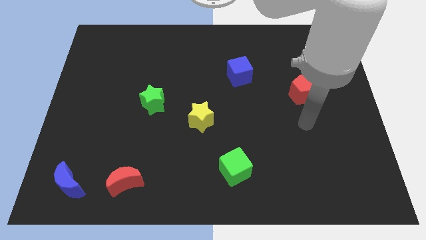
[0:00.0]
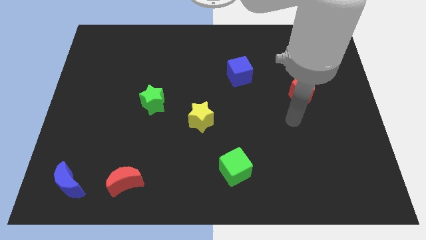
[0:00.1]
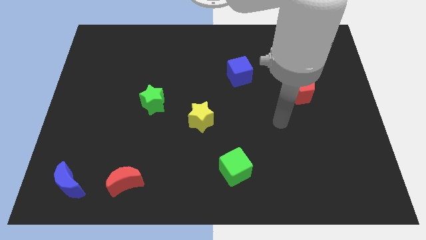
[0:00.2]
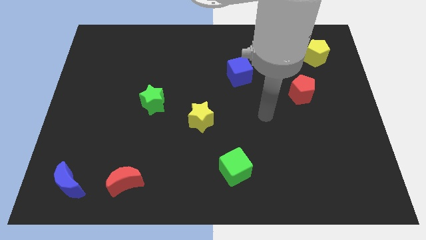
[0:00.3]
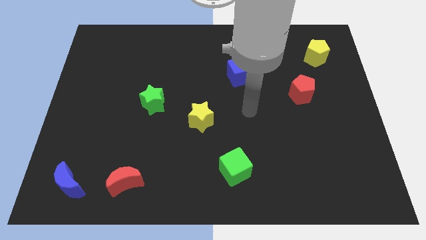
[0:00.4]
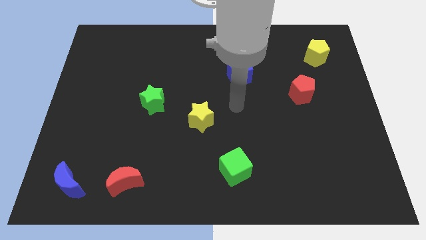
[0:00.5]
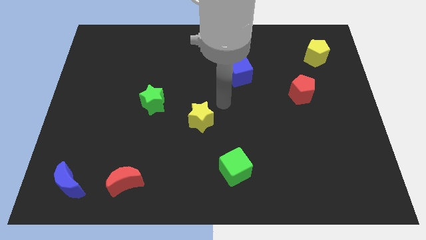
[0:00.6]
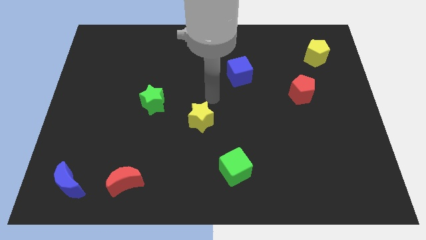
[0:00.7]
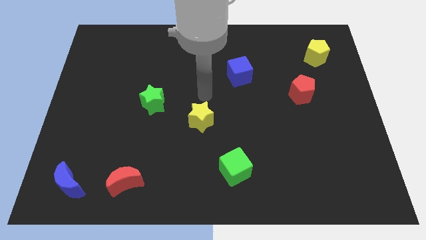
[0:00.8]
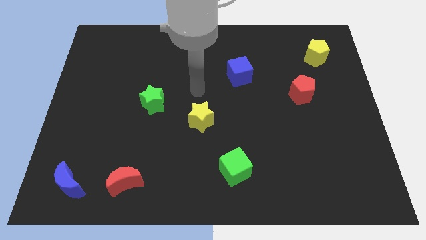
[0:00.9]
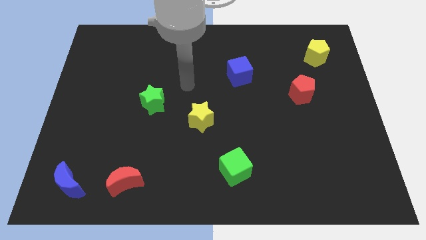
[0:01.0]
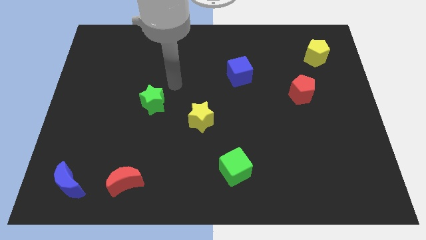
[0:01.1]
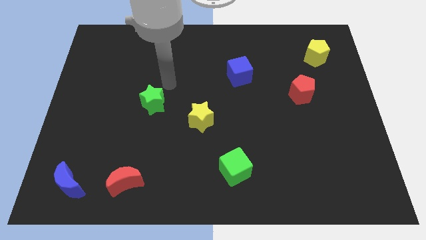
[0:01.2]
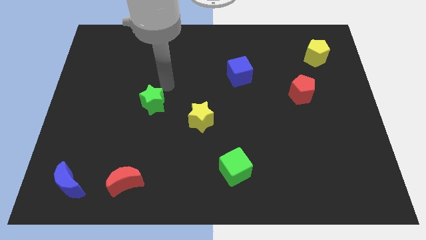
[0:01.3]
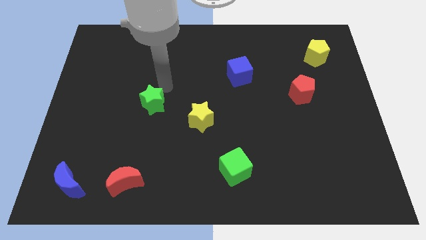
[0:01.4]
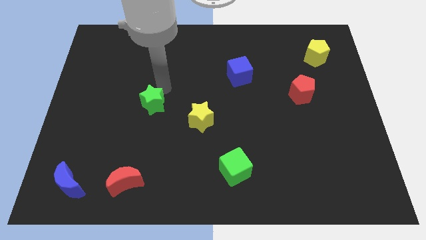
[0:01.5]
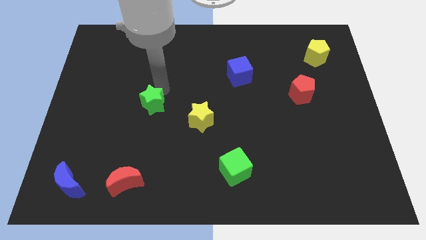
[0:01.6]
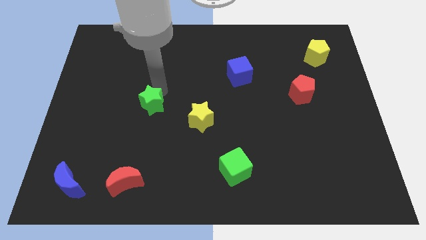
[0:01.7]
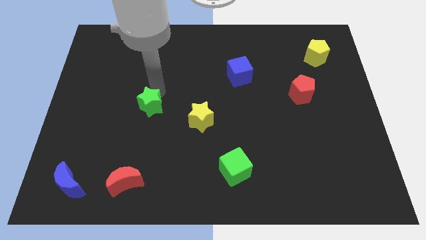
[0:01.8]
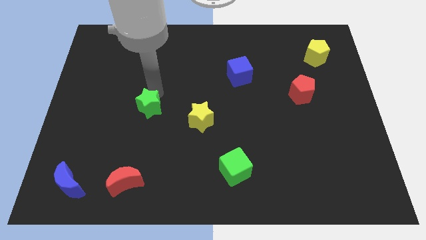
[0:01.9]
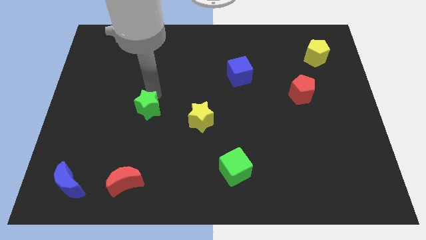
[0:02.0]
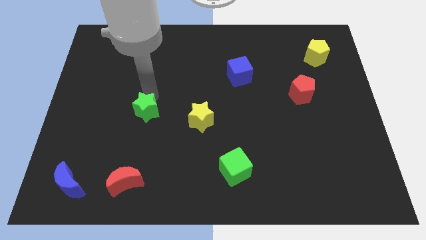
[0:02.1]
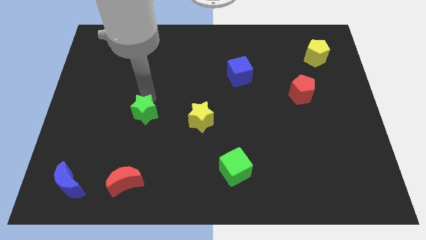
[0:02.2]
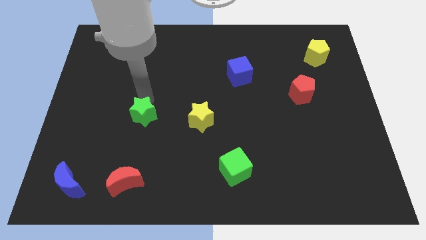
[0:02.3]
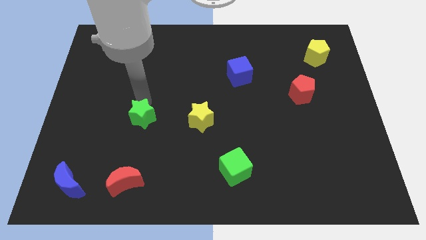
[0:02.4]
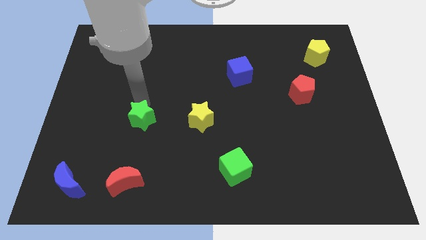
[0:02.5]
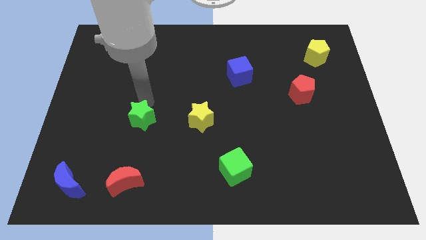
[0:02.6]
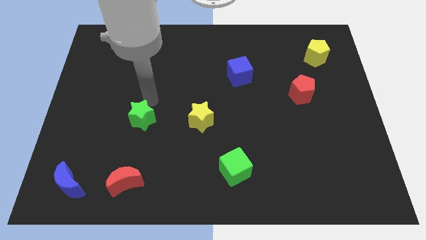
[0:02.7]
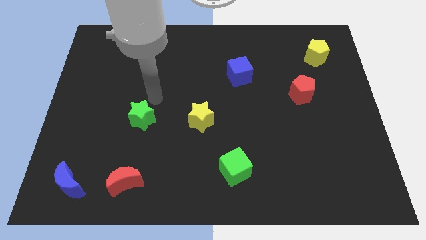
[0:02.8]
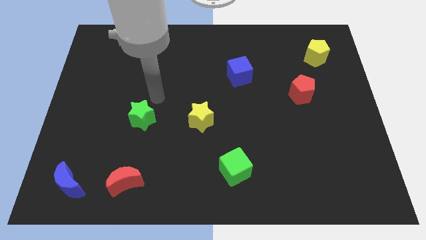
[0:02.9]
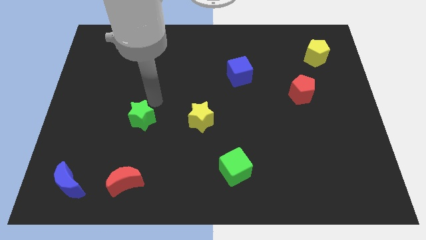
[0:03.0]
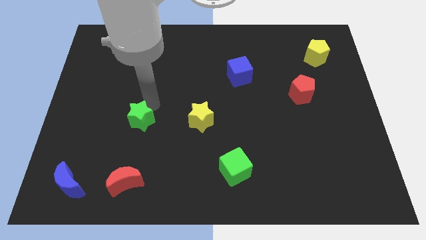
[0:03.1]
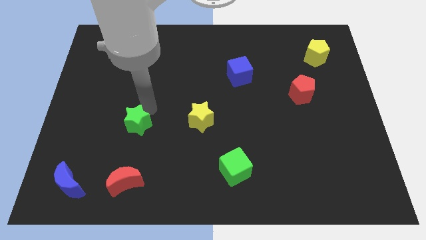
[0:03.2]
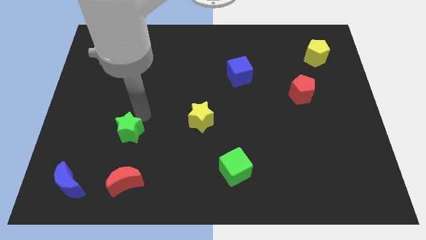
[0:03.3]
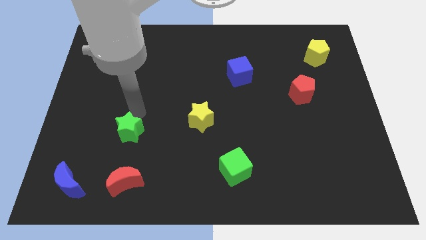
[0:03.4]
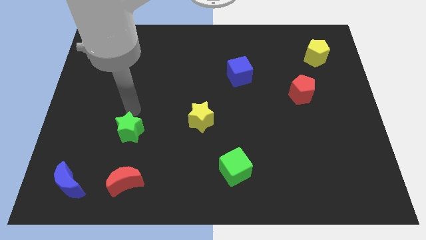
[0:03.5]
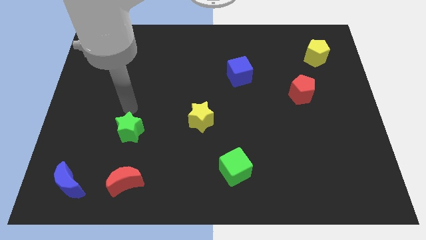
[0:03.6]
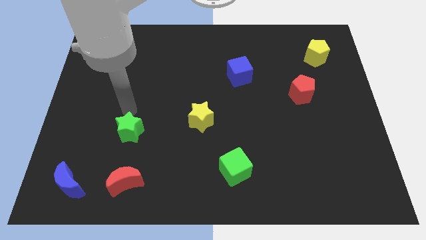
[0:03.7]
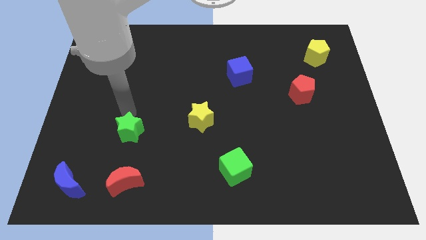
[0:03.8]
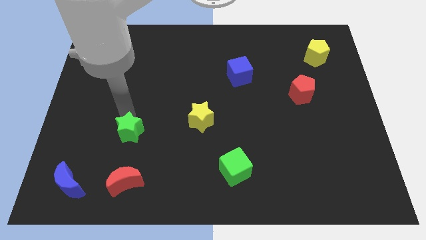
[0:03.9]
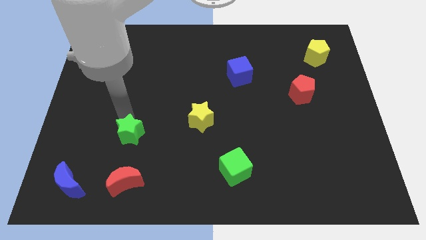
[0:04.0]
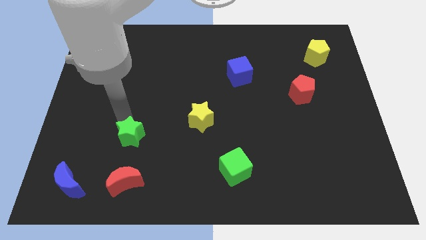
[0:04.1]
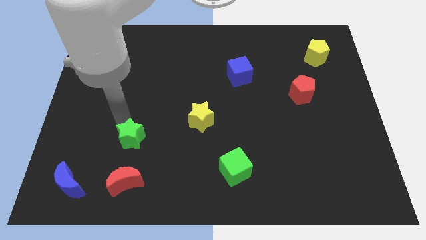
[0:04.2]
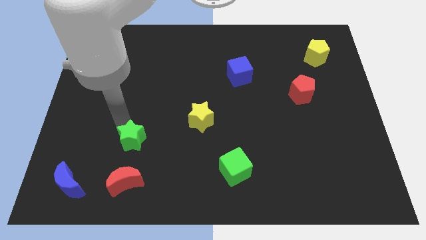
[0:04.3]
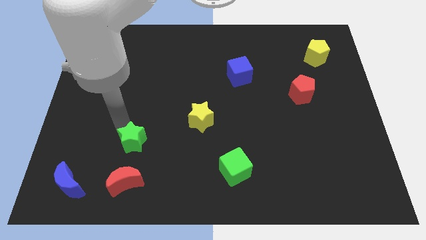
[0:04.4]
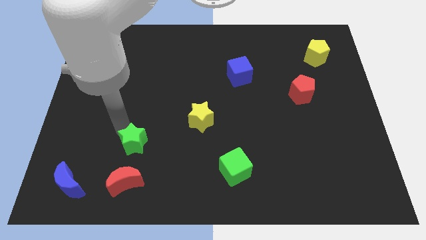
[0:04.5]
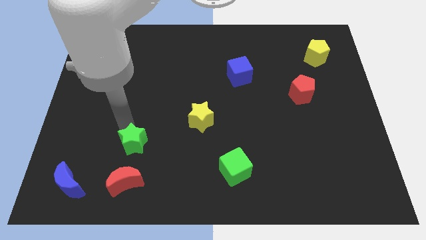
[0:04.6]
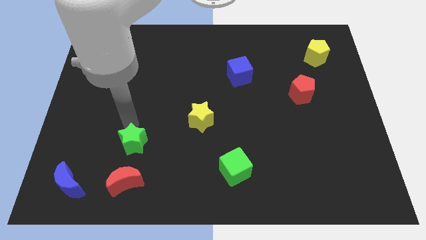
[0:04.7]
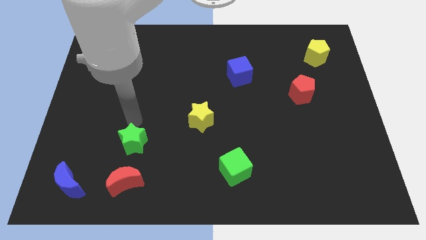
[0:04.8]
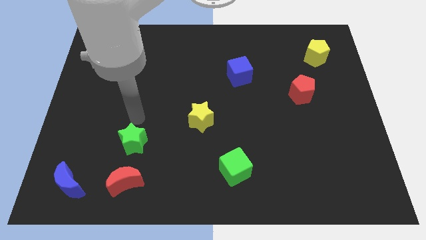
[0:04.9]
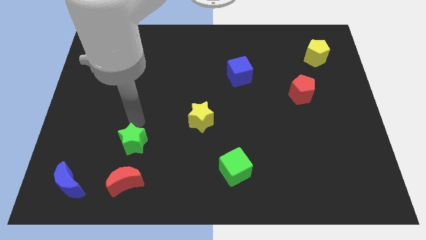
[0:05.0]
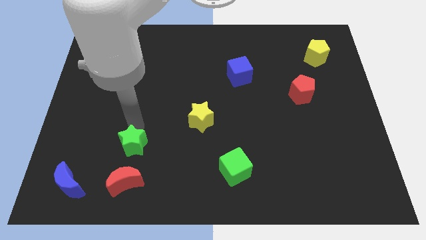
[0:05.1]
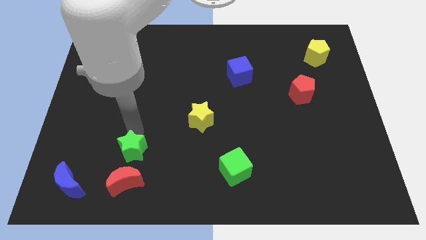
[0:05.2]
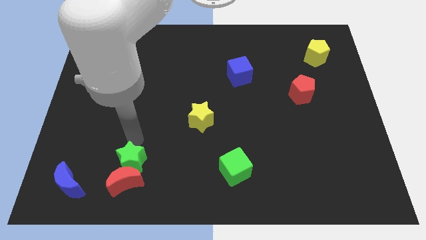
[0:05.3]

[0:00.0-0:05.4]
slide the green star towards the red moon

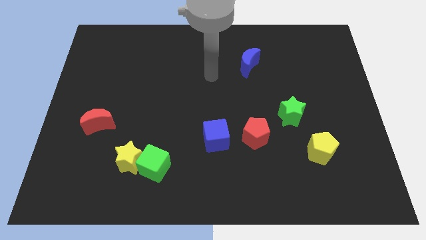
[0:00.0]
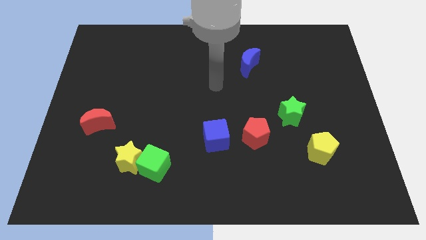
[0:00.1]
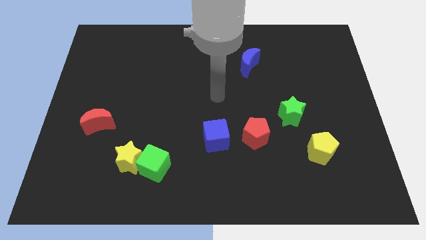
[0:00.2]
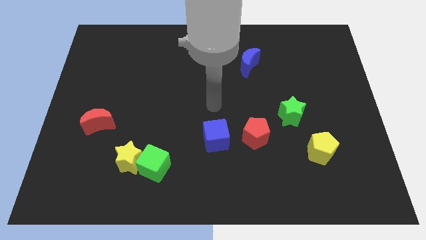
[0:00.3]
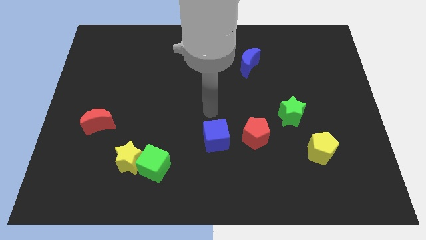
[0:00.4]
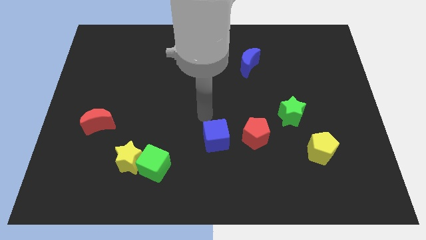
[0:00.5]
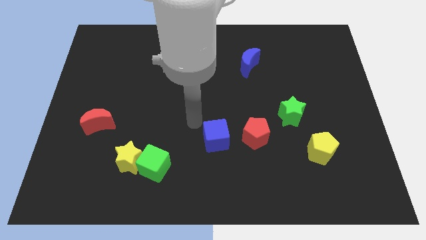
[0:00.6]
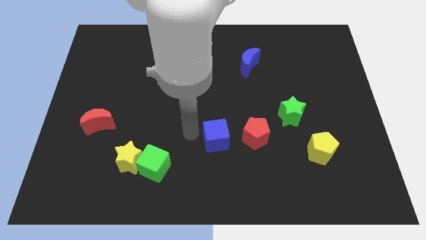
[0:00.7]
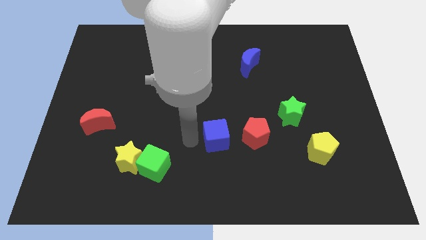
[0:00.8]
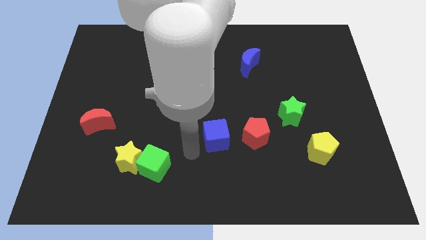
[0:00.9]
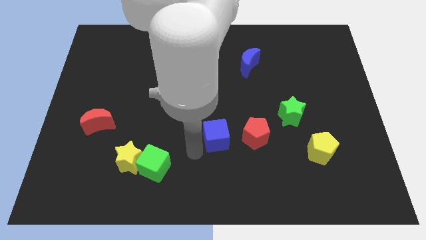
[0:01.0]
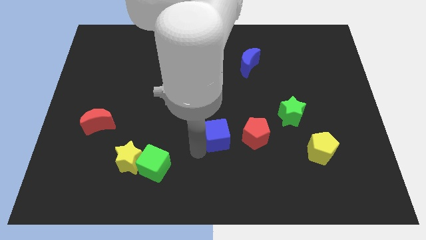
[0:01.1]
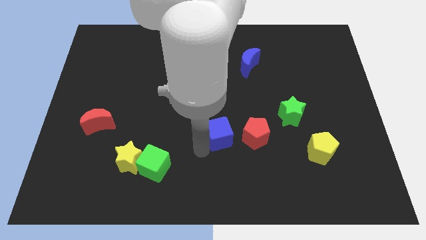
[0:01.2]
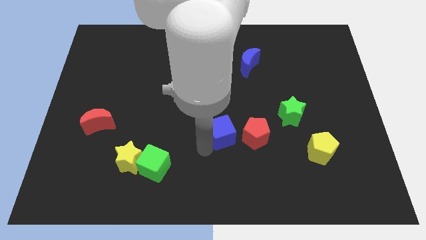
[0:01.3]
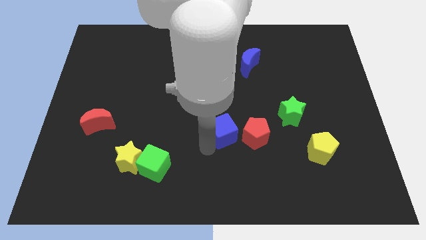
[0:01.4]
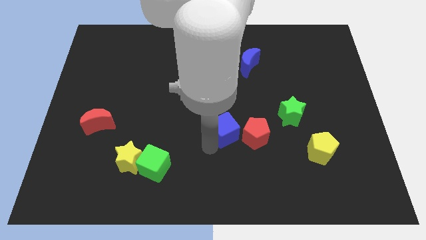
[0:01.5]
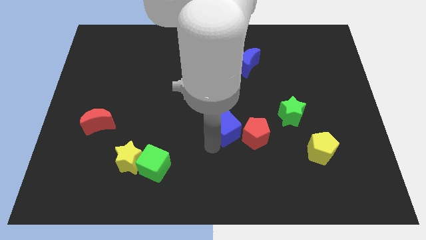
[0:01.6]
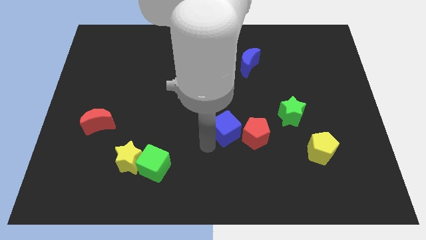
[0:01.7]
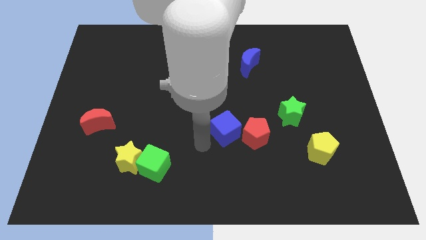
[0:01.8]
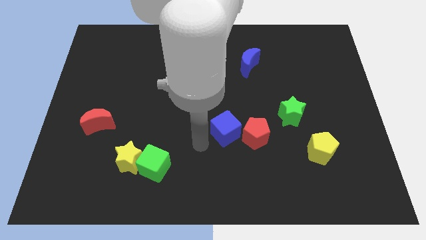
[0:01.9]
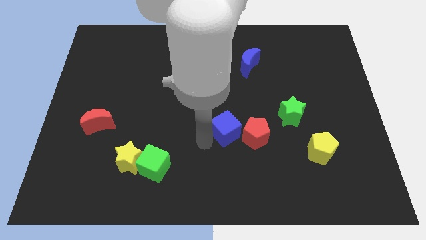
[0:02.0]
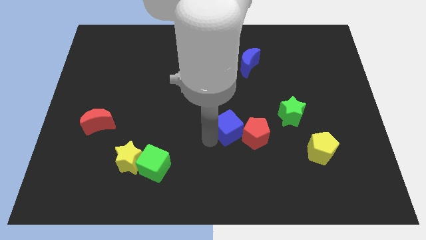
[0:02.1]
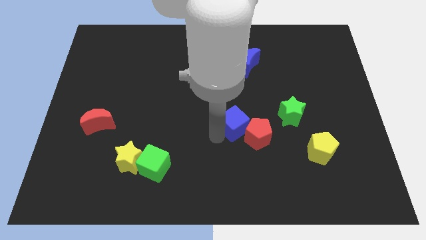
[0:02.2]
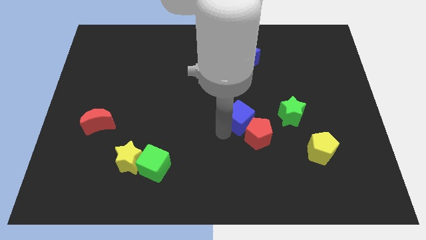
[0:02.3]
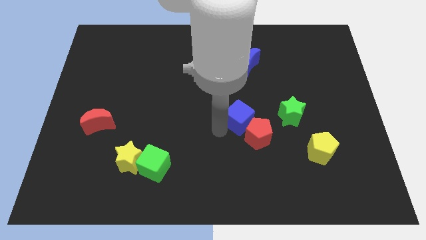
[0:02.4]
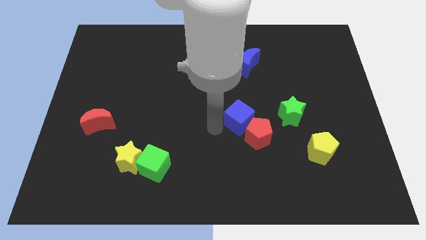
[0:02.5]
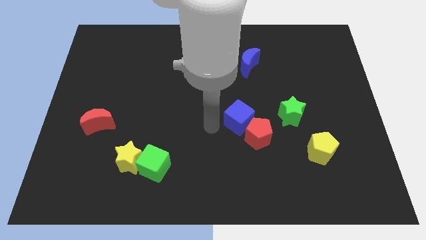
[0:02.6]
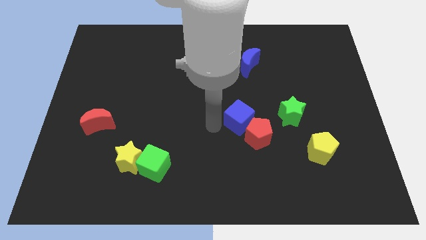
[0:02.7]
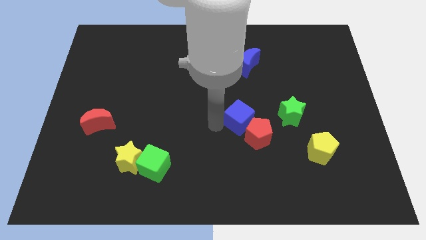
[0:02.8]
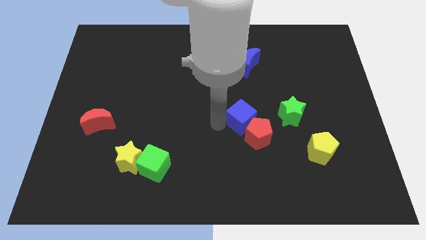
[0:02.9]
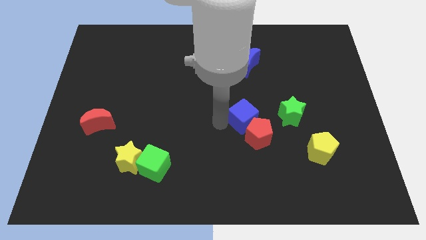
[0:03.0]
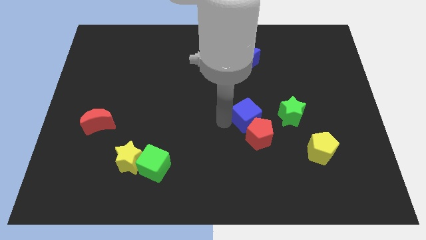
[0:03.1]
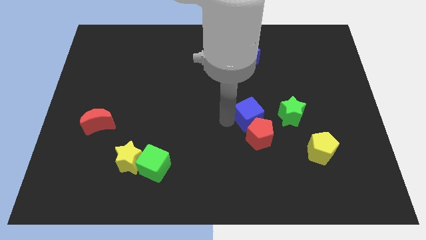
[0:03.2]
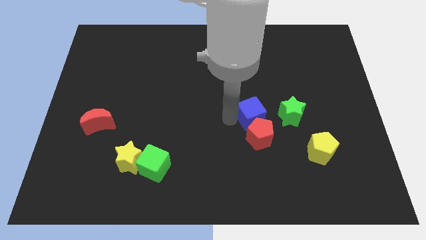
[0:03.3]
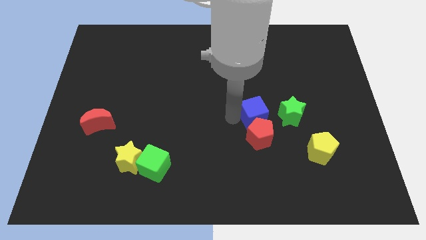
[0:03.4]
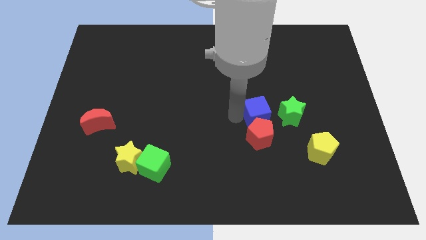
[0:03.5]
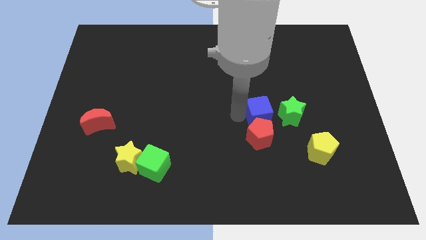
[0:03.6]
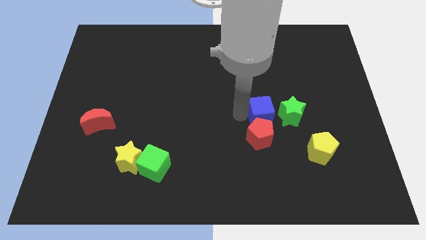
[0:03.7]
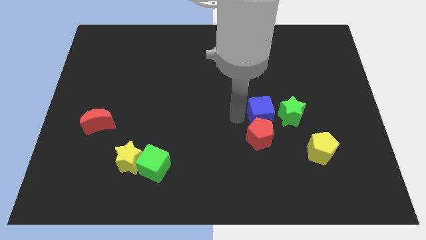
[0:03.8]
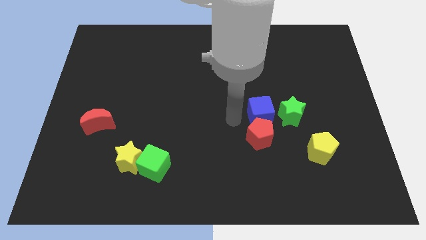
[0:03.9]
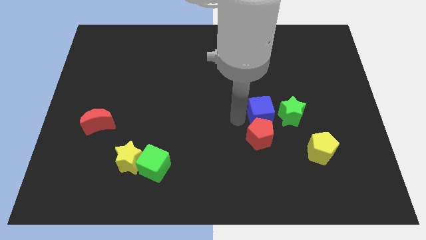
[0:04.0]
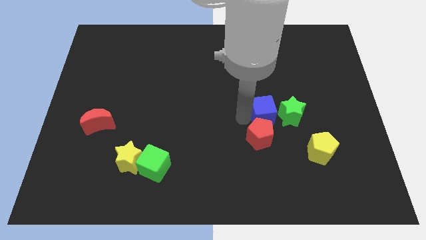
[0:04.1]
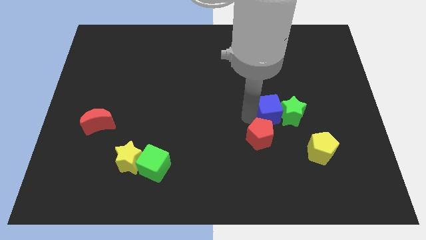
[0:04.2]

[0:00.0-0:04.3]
push the blue cube next to the green star
